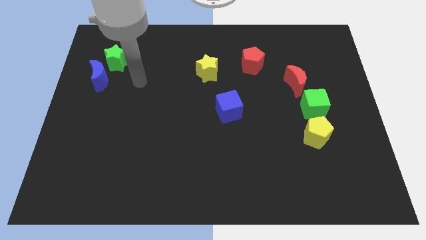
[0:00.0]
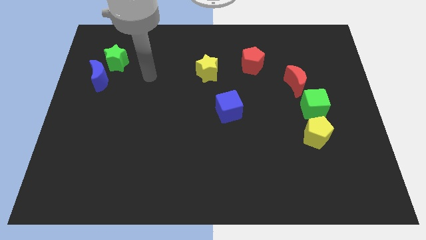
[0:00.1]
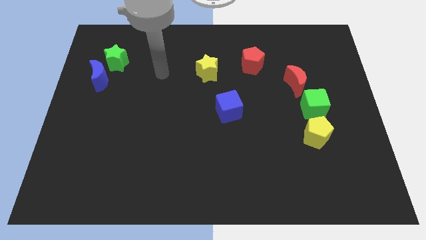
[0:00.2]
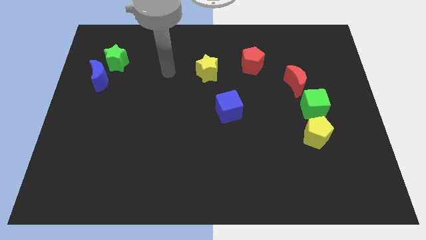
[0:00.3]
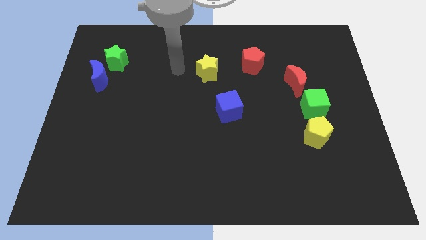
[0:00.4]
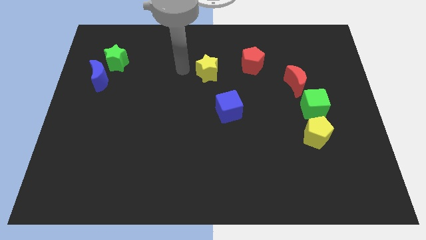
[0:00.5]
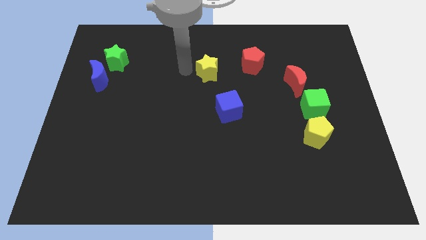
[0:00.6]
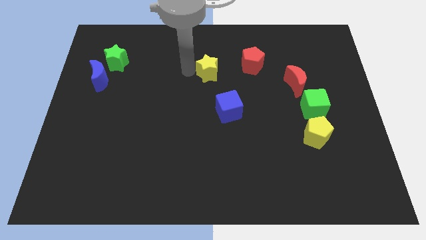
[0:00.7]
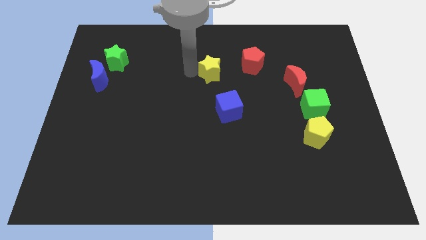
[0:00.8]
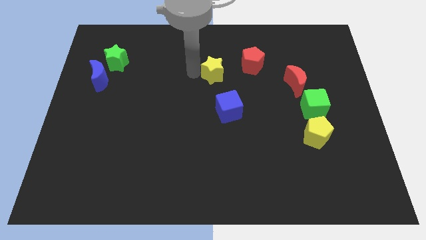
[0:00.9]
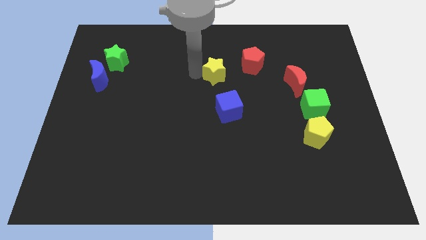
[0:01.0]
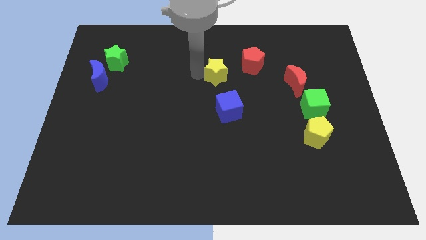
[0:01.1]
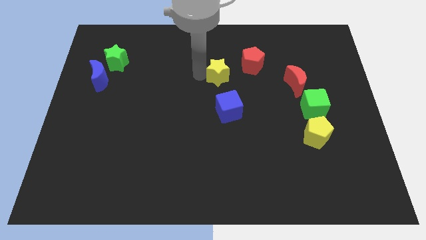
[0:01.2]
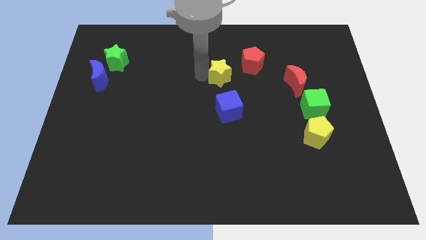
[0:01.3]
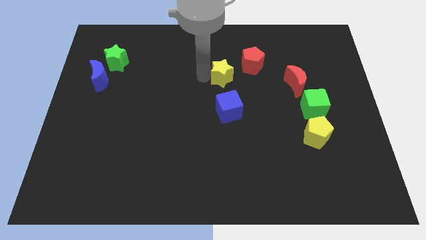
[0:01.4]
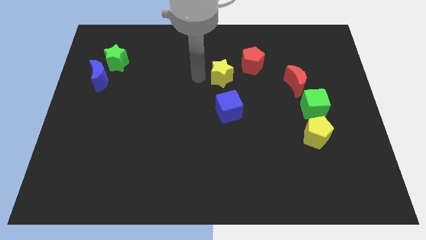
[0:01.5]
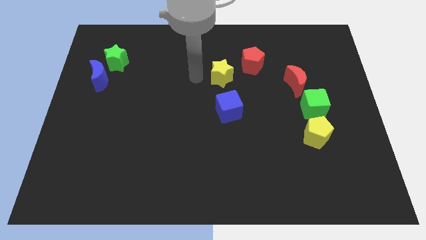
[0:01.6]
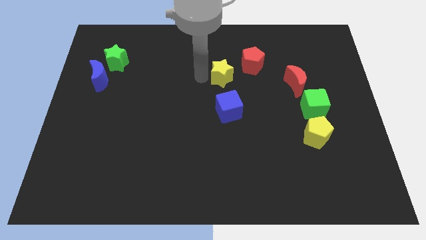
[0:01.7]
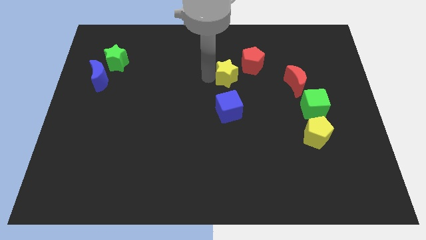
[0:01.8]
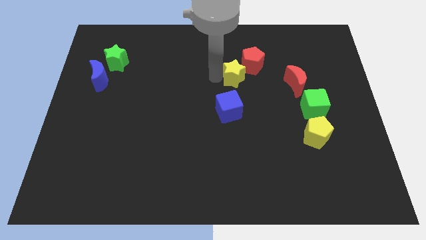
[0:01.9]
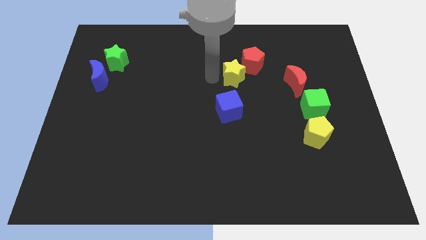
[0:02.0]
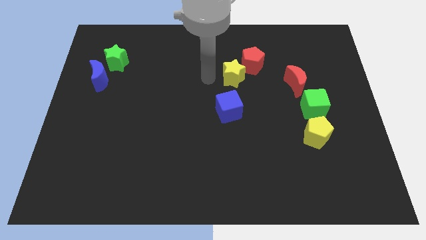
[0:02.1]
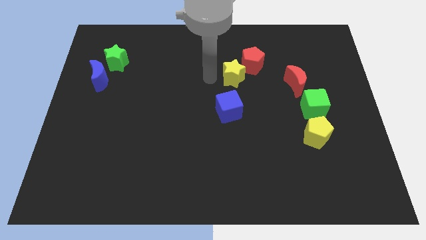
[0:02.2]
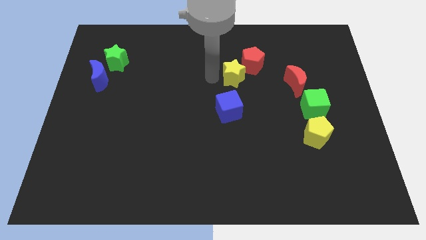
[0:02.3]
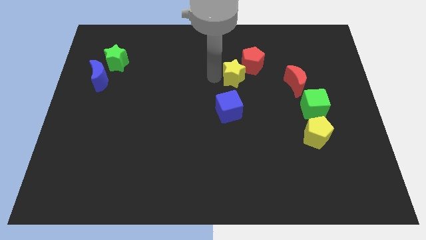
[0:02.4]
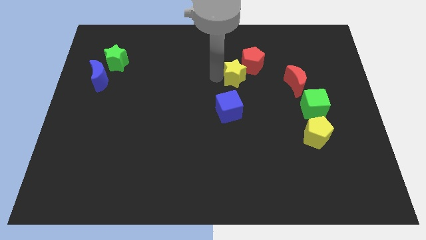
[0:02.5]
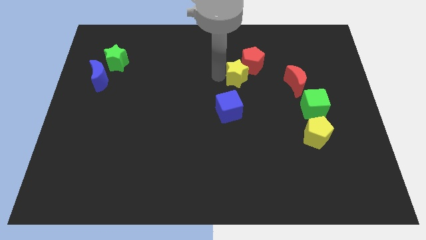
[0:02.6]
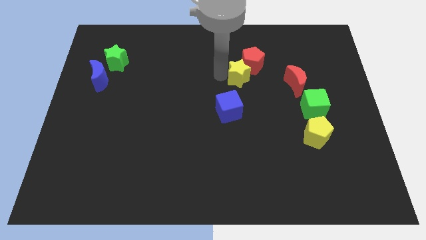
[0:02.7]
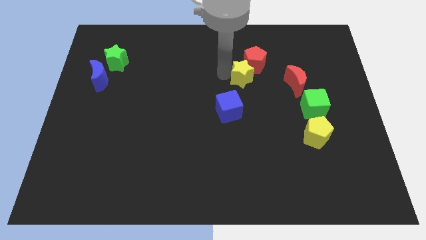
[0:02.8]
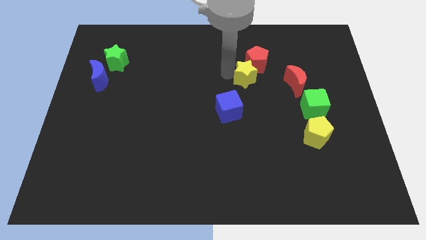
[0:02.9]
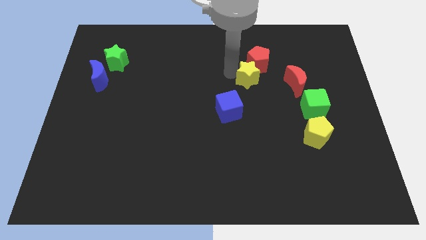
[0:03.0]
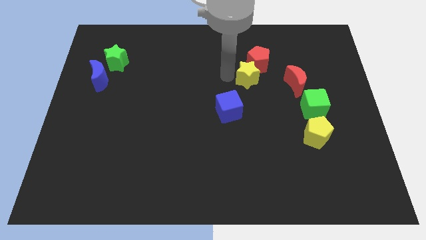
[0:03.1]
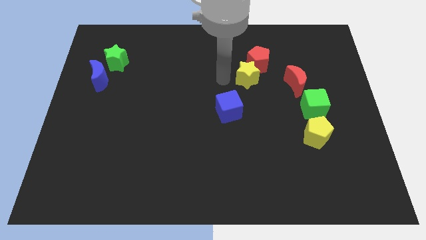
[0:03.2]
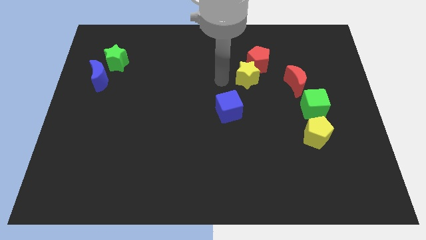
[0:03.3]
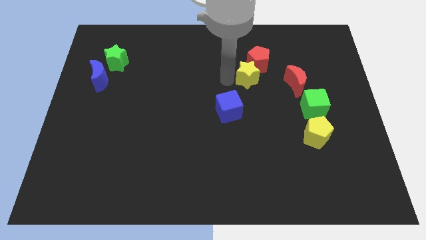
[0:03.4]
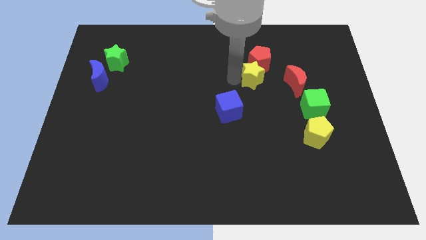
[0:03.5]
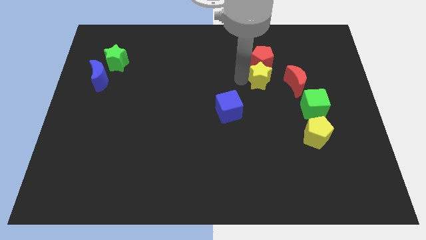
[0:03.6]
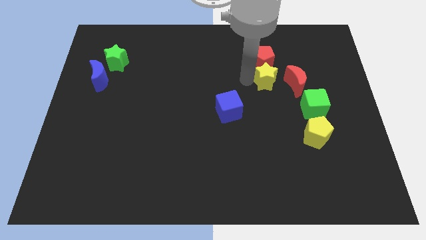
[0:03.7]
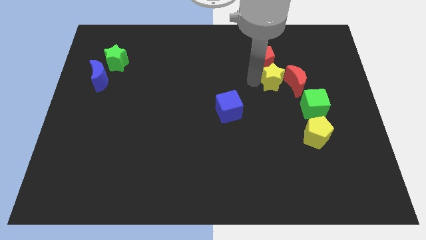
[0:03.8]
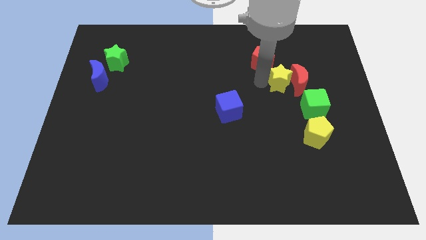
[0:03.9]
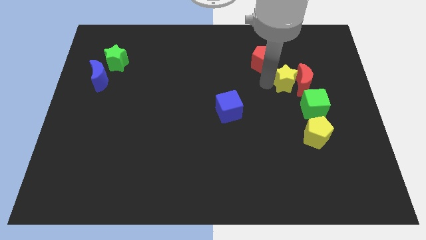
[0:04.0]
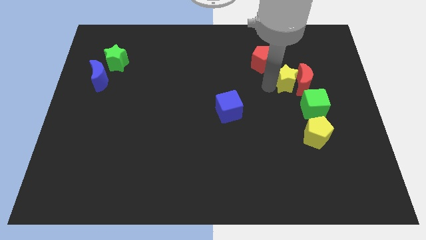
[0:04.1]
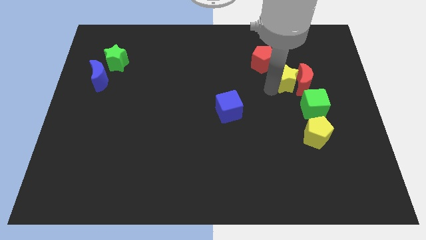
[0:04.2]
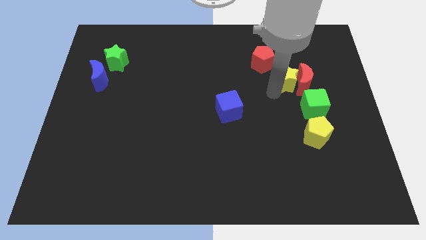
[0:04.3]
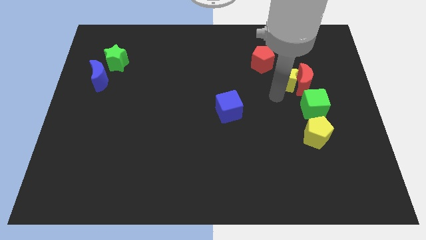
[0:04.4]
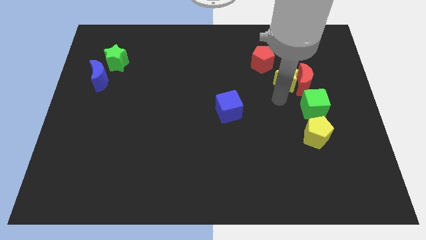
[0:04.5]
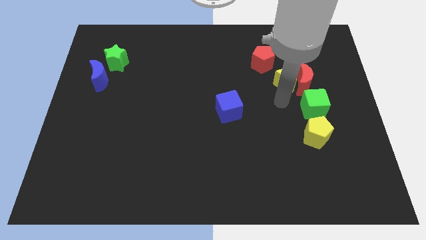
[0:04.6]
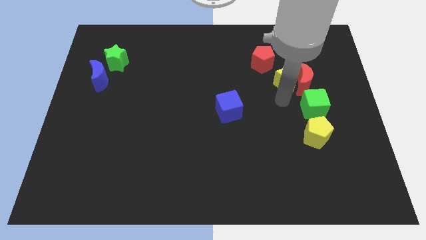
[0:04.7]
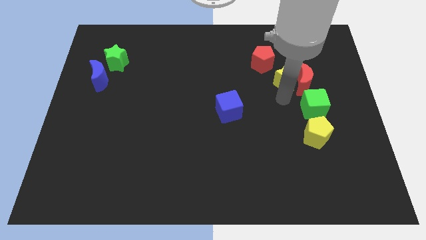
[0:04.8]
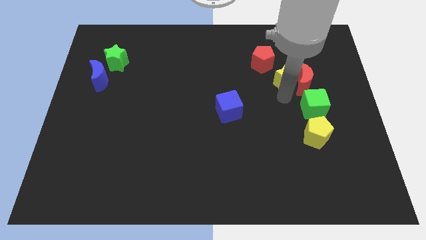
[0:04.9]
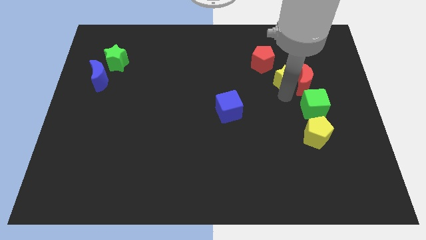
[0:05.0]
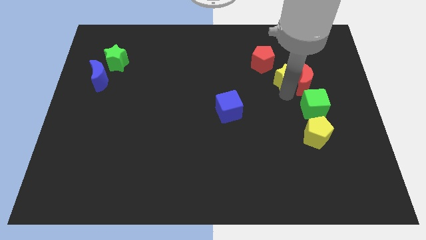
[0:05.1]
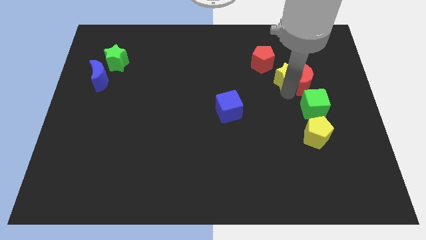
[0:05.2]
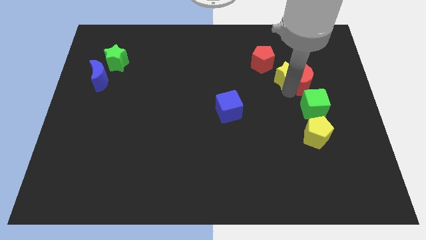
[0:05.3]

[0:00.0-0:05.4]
move the yellow star above the green cube

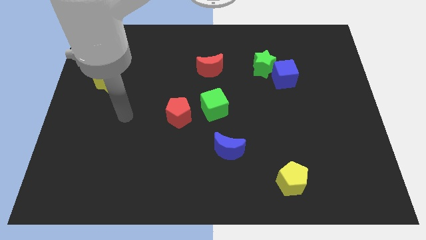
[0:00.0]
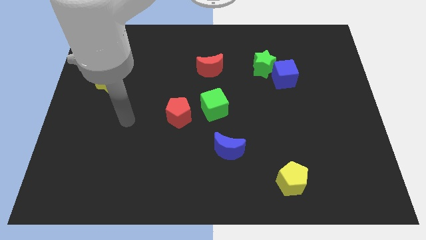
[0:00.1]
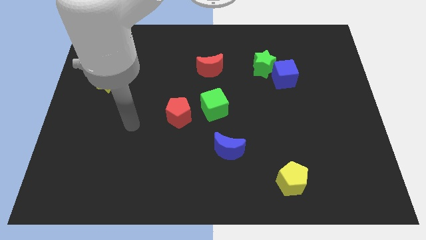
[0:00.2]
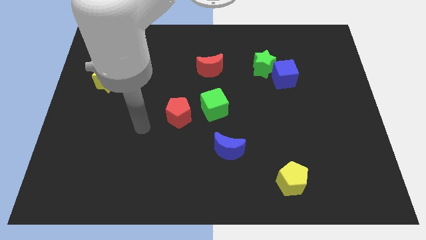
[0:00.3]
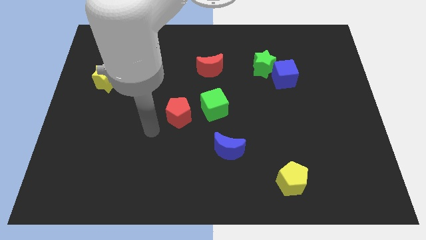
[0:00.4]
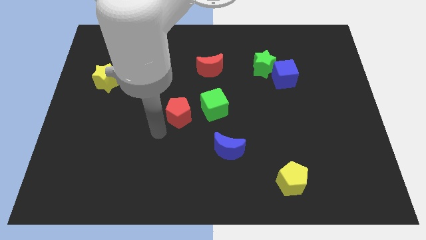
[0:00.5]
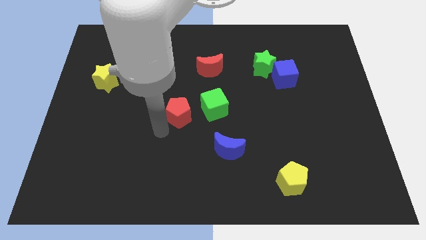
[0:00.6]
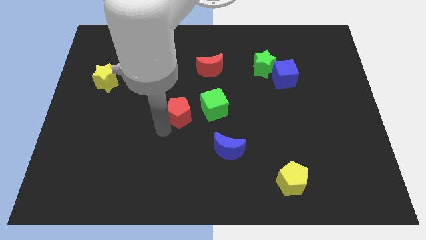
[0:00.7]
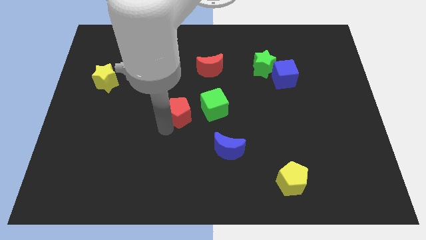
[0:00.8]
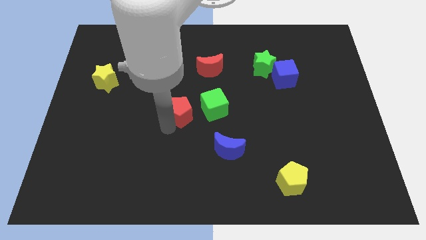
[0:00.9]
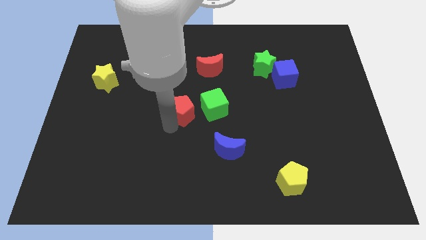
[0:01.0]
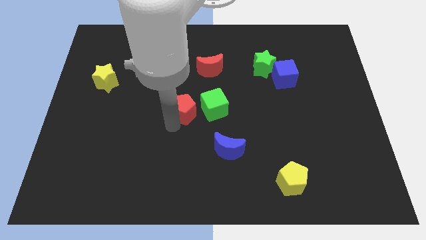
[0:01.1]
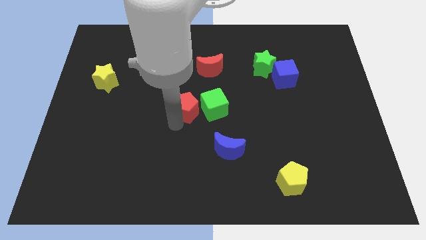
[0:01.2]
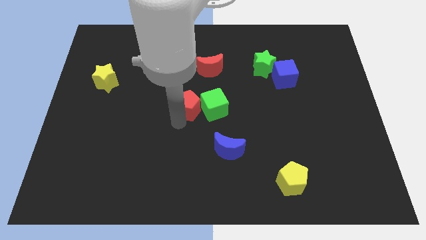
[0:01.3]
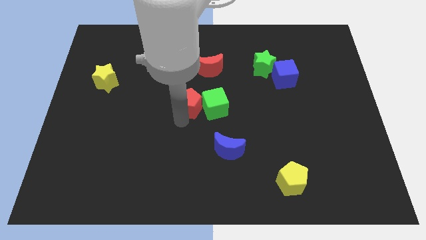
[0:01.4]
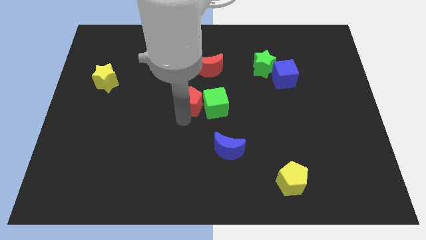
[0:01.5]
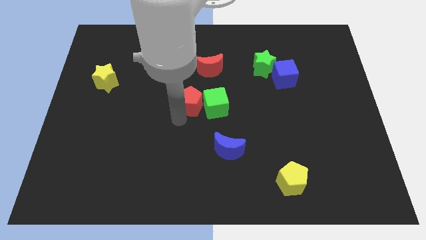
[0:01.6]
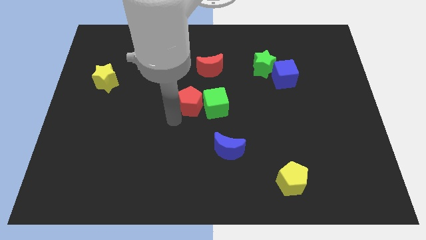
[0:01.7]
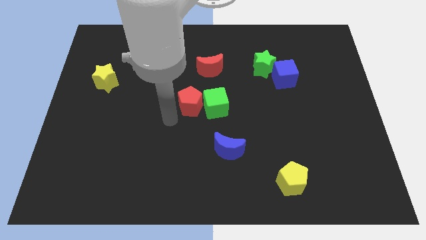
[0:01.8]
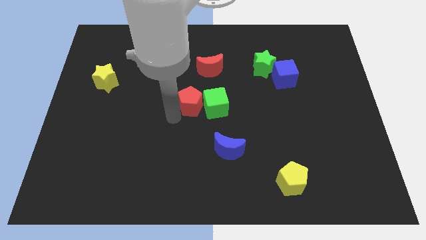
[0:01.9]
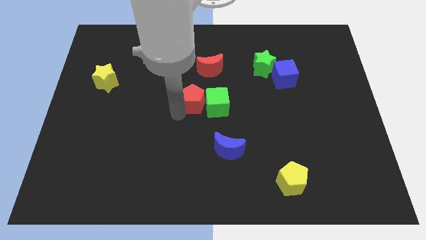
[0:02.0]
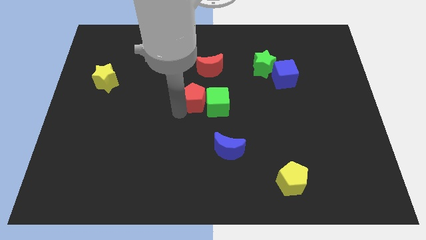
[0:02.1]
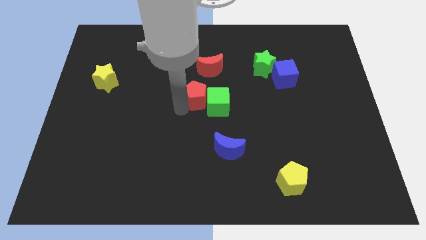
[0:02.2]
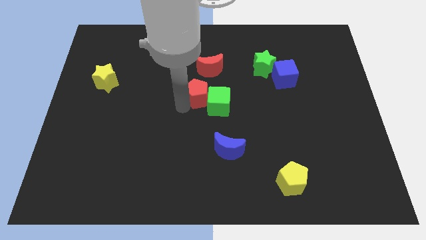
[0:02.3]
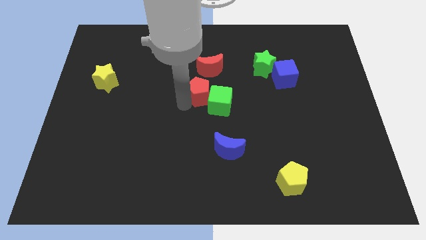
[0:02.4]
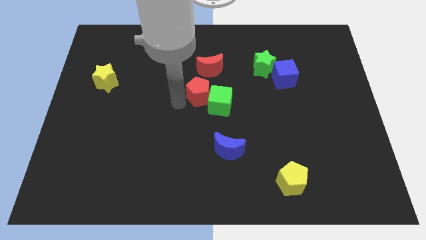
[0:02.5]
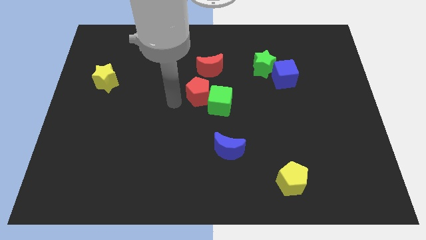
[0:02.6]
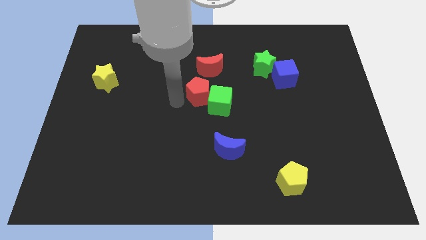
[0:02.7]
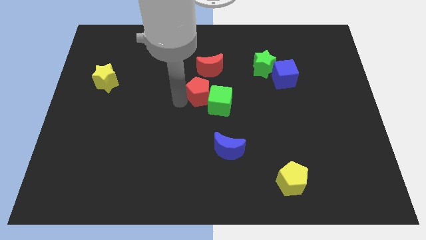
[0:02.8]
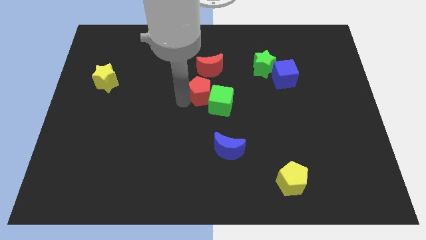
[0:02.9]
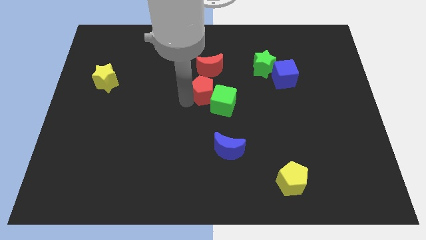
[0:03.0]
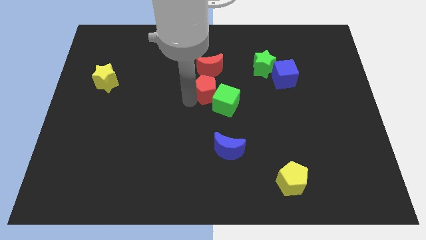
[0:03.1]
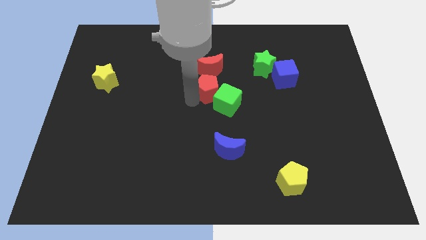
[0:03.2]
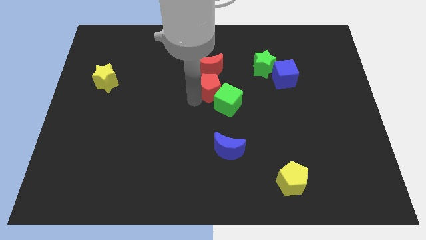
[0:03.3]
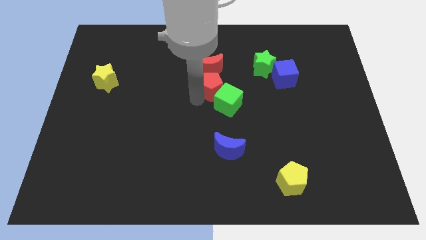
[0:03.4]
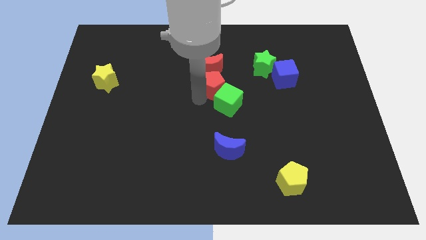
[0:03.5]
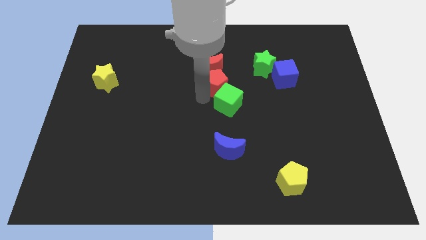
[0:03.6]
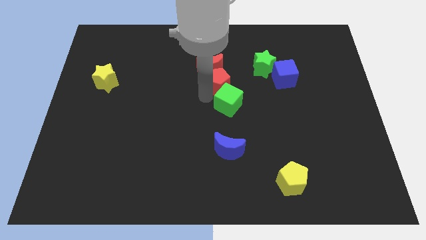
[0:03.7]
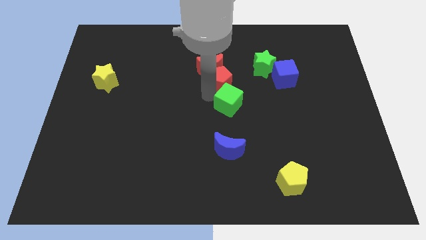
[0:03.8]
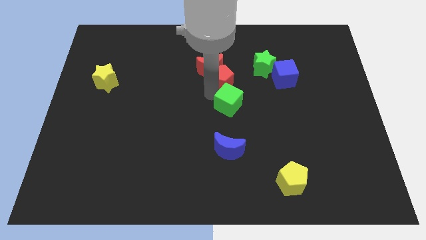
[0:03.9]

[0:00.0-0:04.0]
push the red pentagon just left of the blue cube
